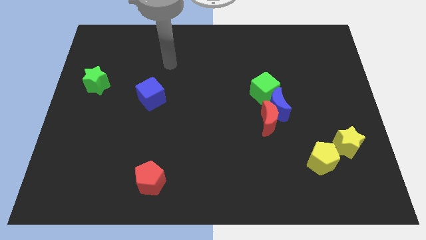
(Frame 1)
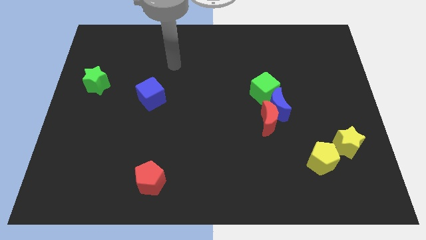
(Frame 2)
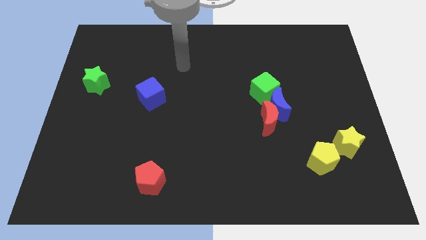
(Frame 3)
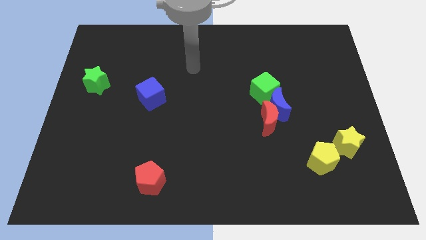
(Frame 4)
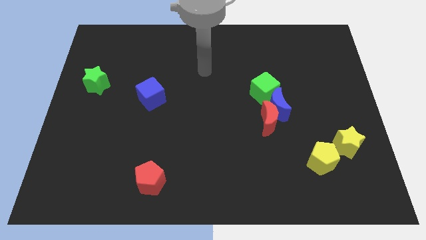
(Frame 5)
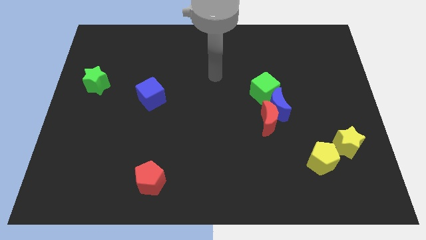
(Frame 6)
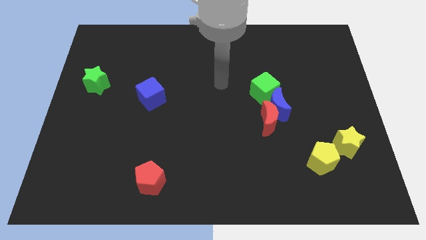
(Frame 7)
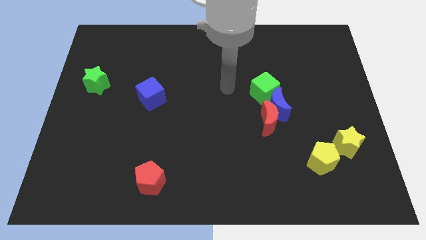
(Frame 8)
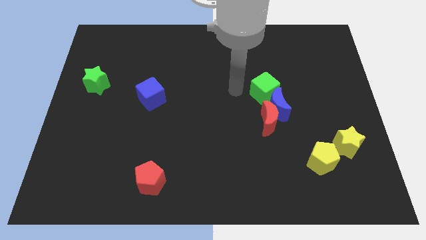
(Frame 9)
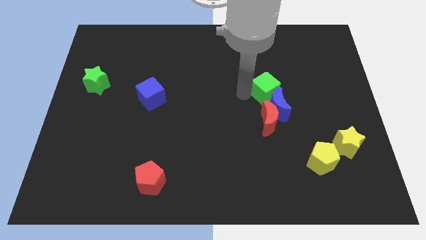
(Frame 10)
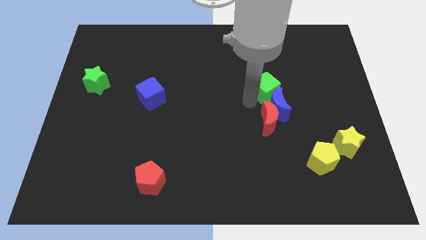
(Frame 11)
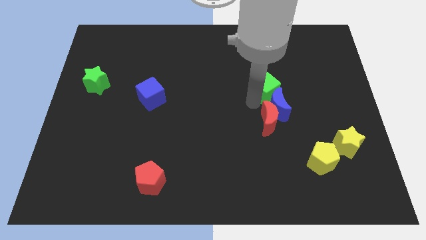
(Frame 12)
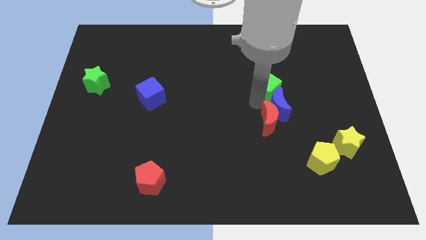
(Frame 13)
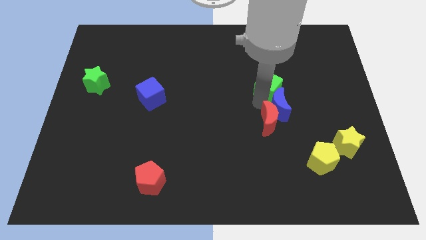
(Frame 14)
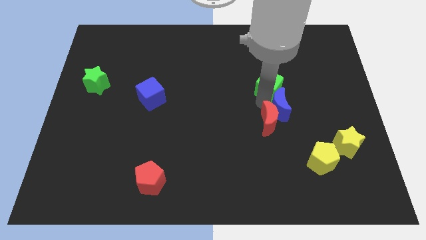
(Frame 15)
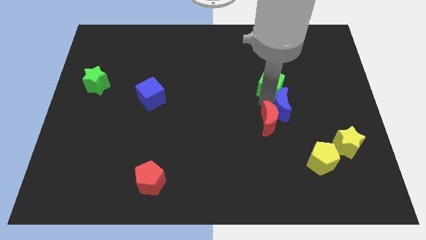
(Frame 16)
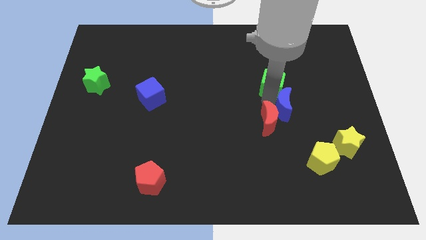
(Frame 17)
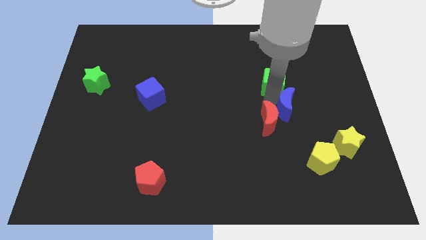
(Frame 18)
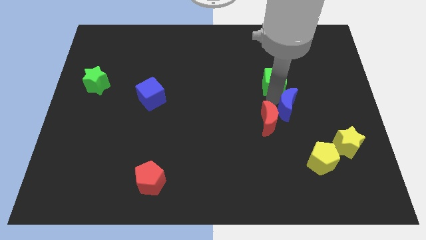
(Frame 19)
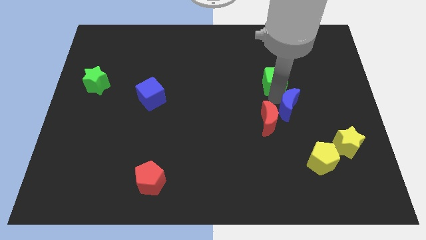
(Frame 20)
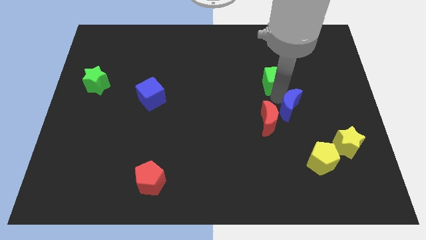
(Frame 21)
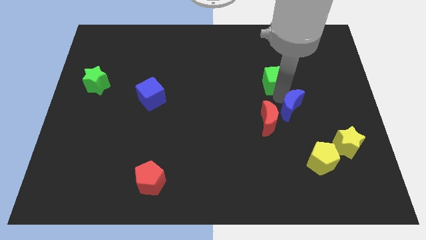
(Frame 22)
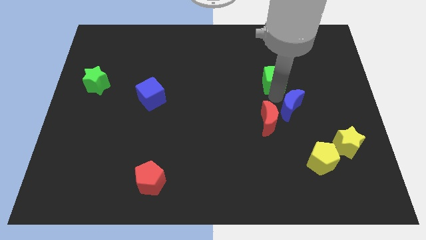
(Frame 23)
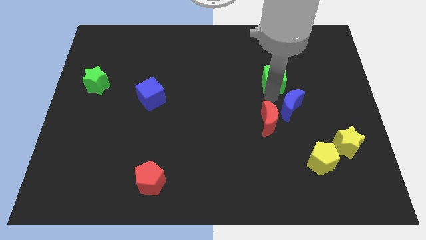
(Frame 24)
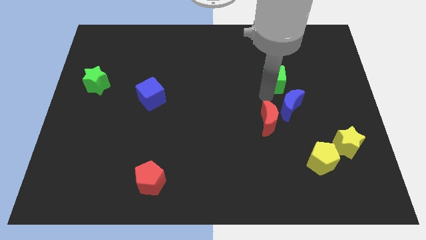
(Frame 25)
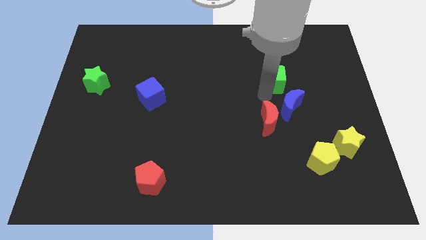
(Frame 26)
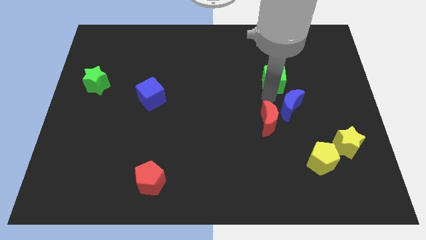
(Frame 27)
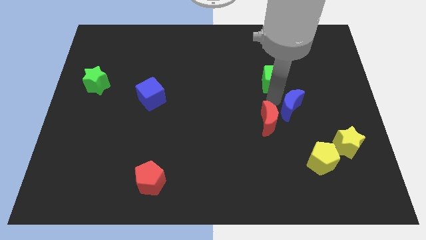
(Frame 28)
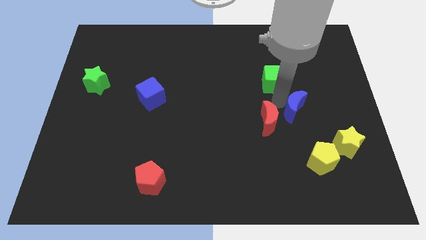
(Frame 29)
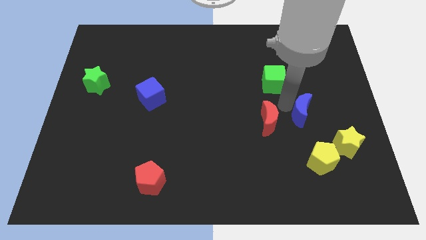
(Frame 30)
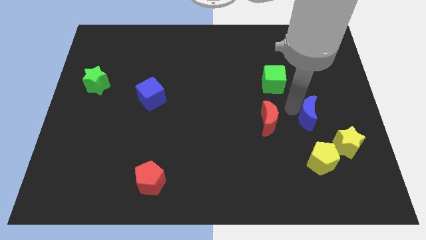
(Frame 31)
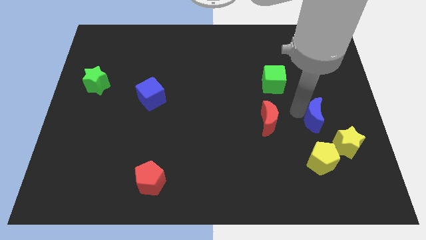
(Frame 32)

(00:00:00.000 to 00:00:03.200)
move the blue moon away from the red moon and green cube

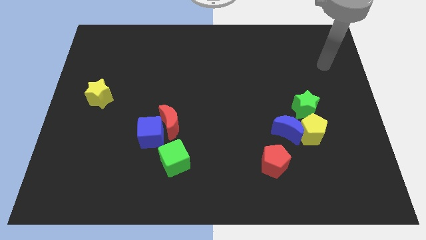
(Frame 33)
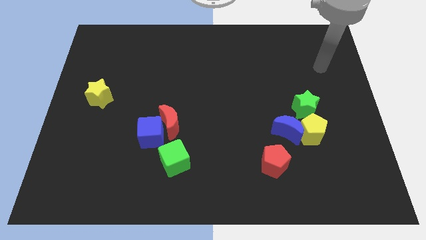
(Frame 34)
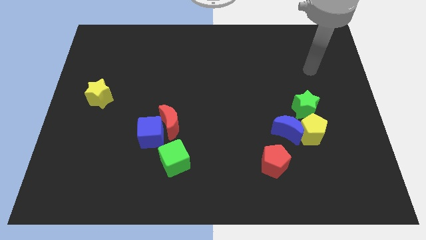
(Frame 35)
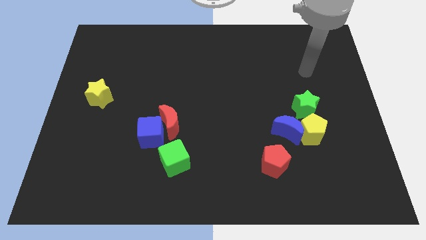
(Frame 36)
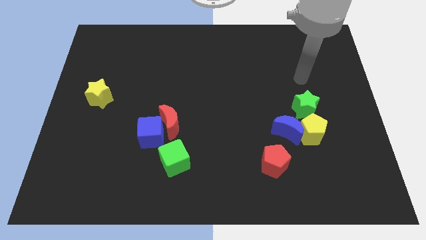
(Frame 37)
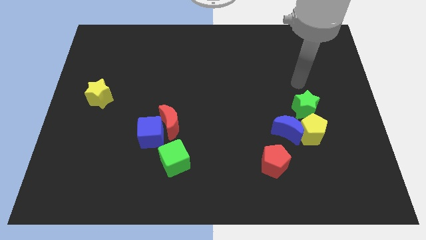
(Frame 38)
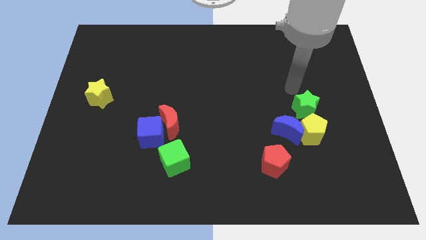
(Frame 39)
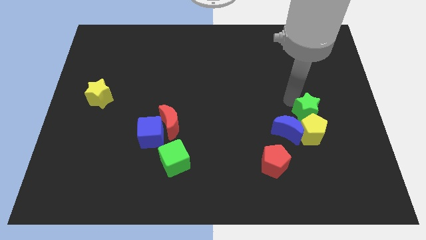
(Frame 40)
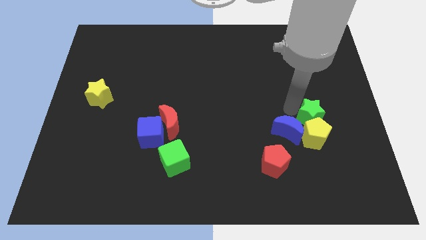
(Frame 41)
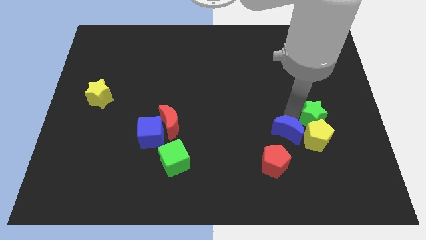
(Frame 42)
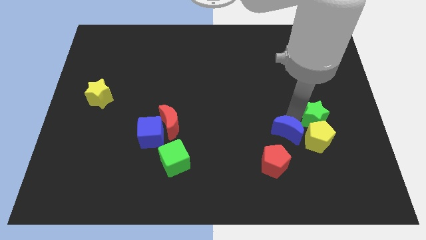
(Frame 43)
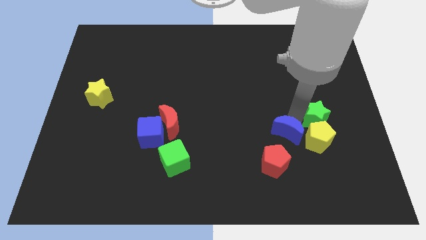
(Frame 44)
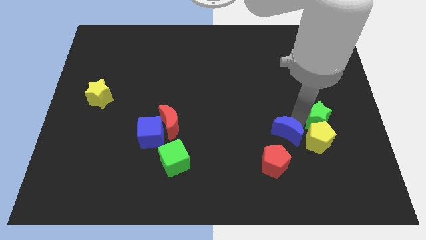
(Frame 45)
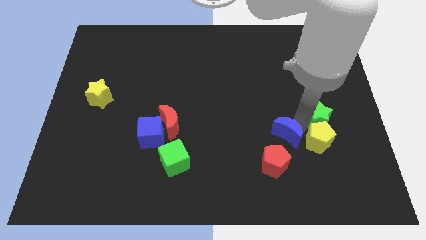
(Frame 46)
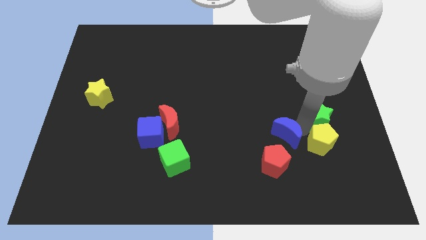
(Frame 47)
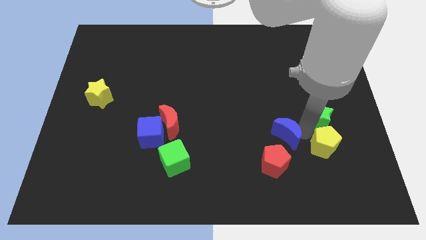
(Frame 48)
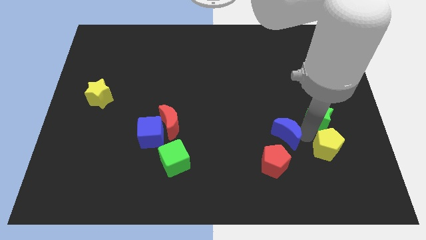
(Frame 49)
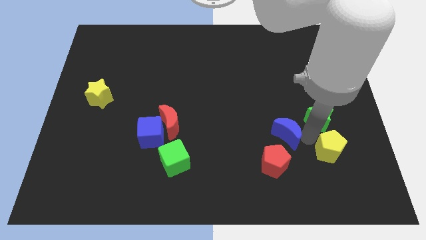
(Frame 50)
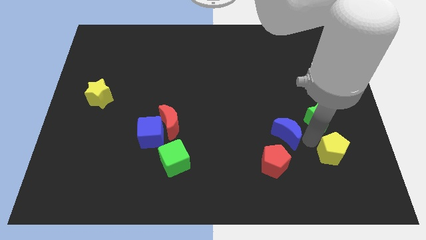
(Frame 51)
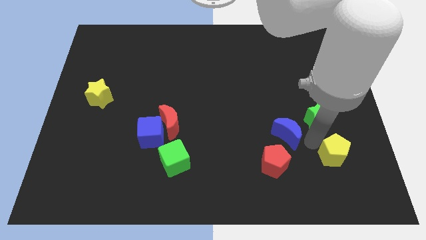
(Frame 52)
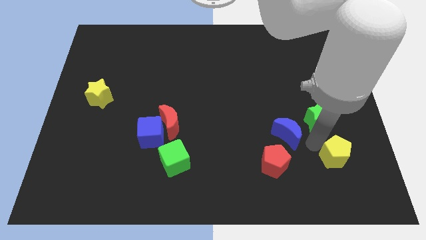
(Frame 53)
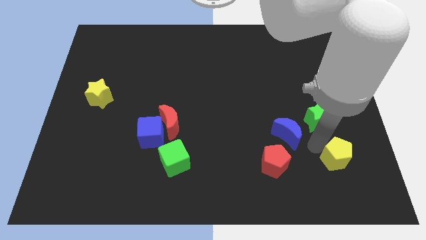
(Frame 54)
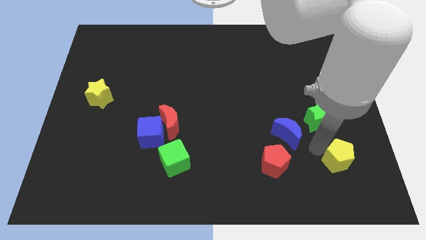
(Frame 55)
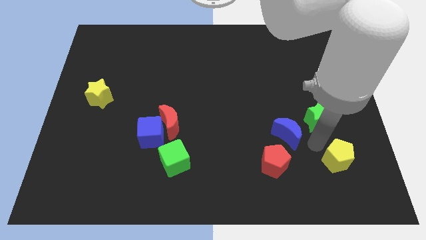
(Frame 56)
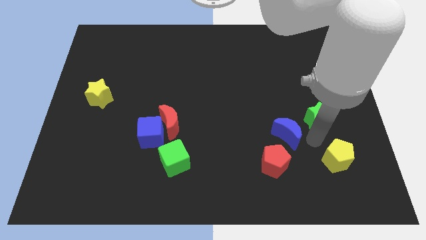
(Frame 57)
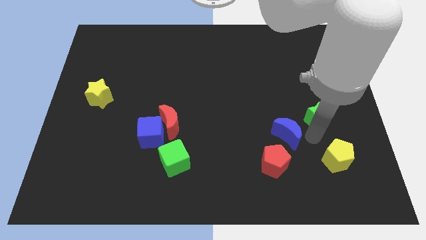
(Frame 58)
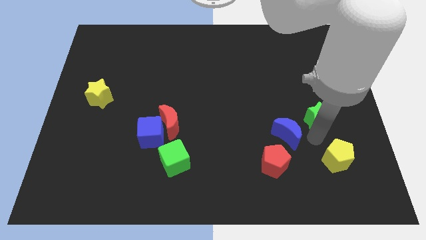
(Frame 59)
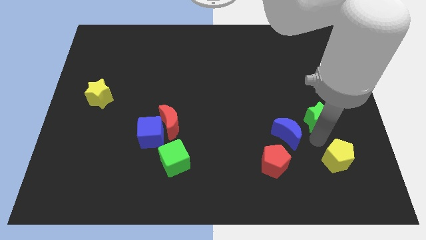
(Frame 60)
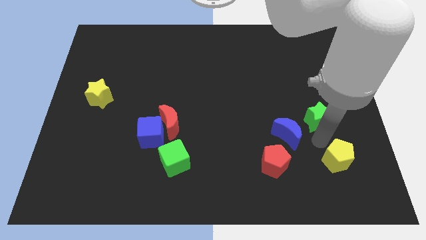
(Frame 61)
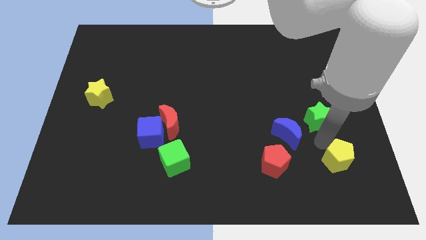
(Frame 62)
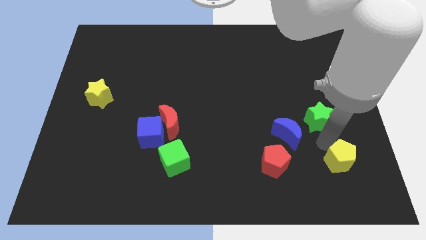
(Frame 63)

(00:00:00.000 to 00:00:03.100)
move the yellow pentagon away from the blue moon and green star

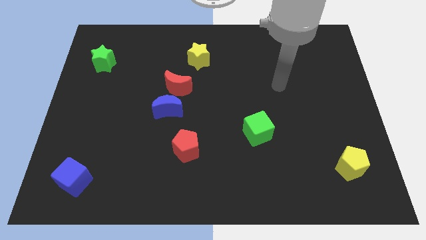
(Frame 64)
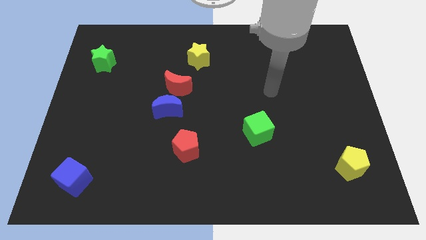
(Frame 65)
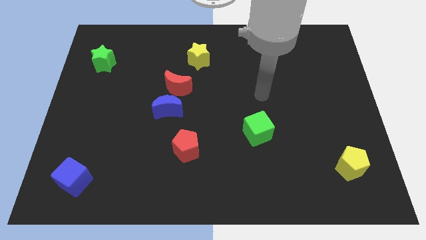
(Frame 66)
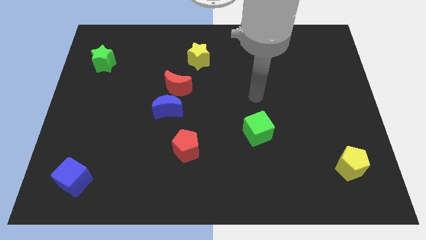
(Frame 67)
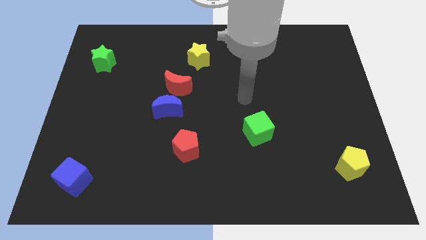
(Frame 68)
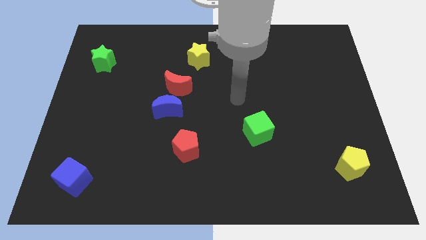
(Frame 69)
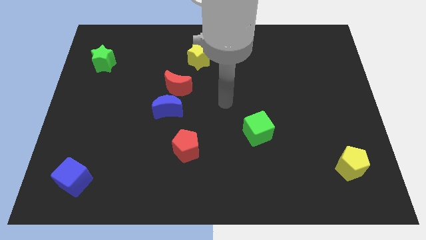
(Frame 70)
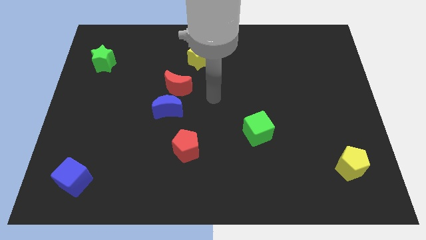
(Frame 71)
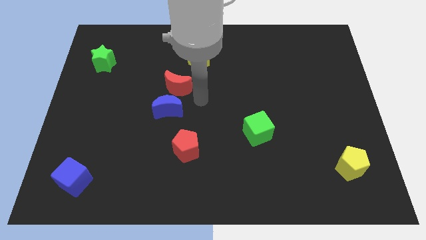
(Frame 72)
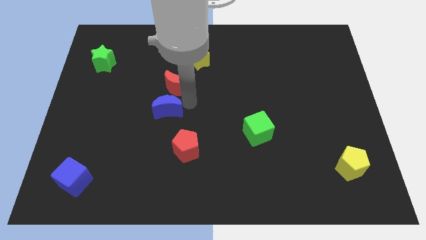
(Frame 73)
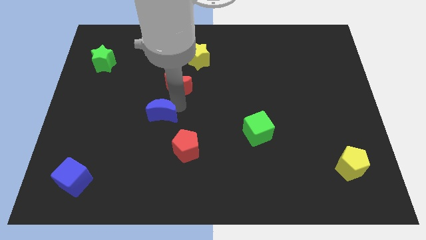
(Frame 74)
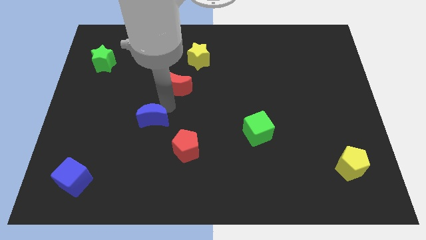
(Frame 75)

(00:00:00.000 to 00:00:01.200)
separate the red moon from the blue moon

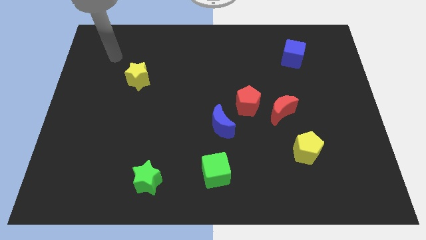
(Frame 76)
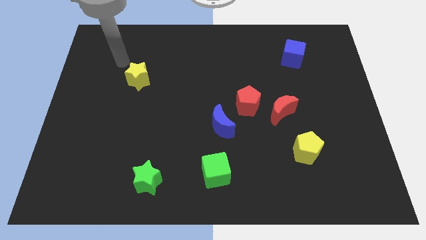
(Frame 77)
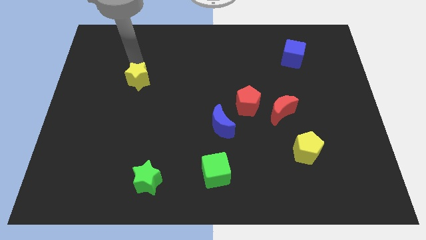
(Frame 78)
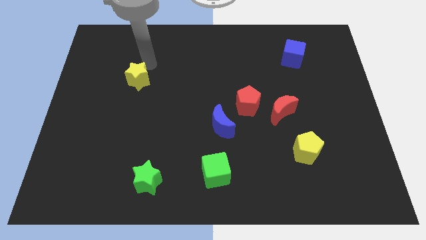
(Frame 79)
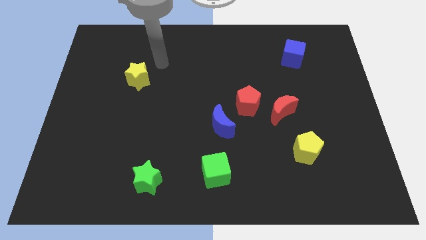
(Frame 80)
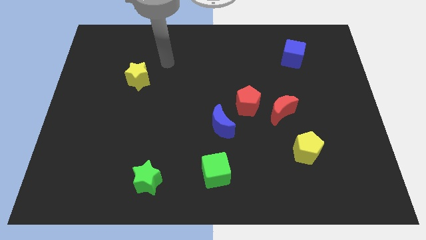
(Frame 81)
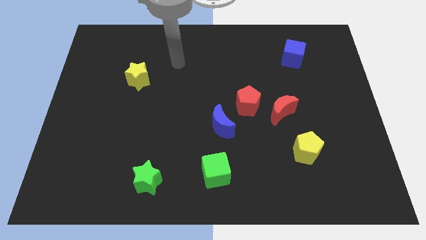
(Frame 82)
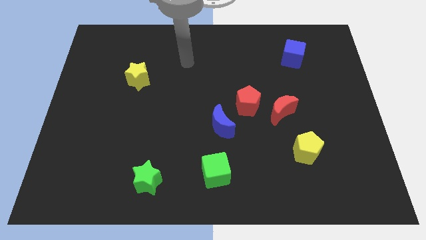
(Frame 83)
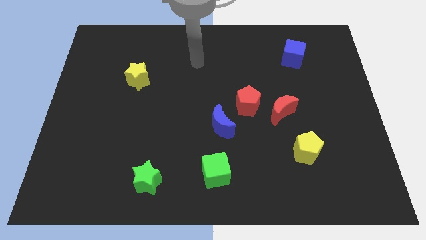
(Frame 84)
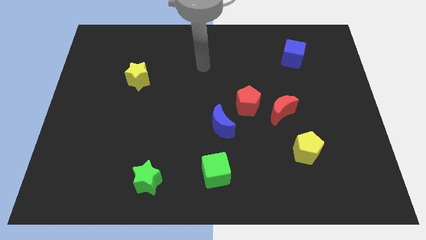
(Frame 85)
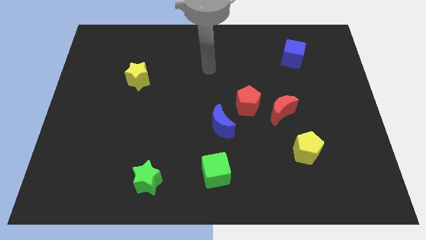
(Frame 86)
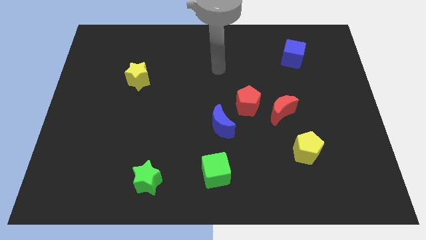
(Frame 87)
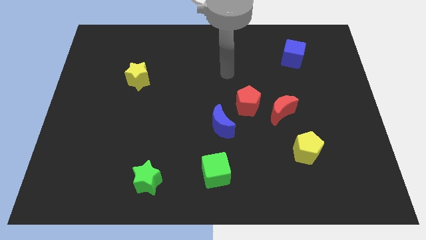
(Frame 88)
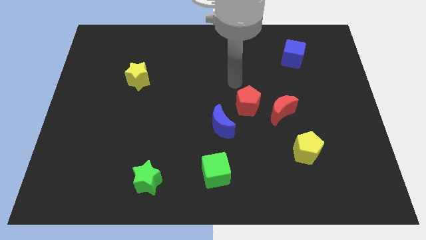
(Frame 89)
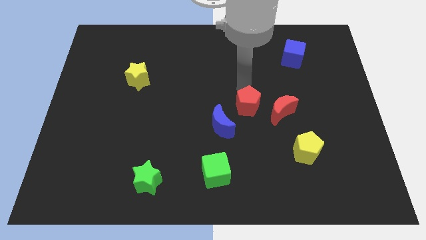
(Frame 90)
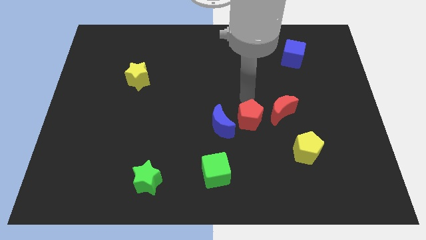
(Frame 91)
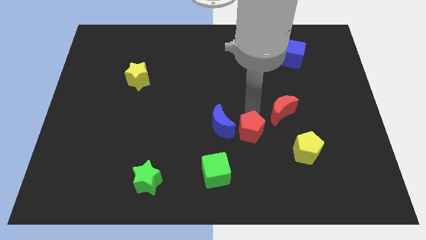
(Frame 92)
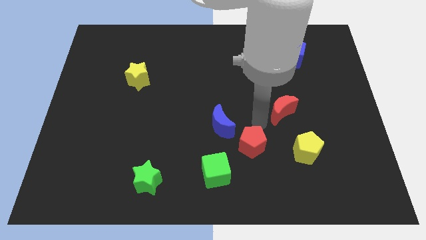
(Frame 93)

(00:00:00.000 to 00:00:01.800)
move the red moon away from the red pentagon
